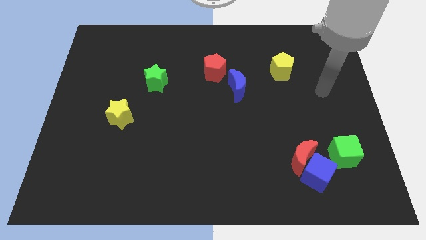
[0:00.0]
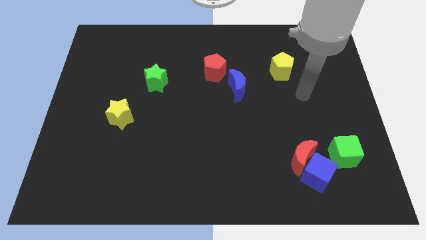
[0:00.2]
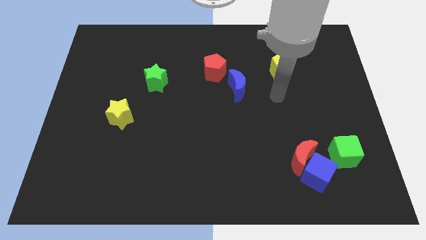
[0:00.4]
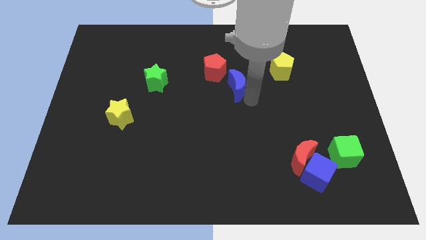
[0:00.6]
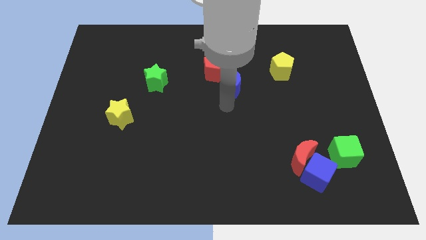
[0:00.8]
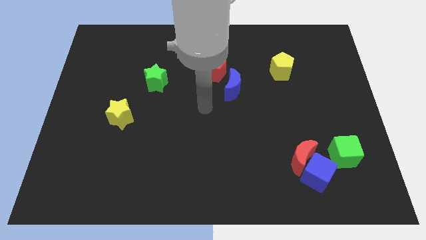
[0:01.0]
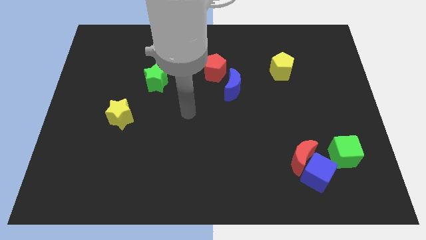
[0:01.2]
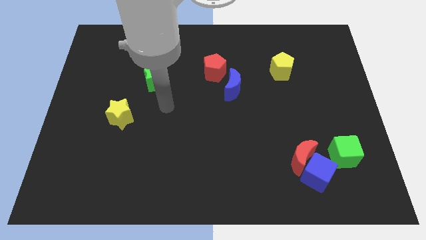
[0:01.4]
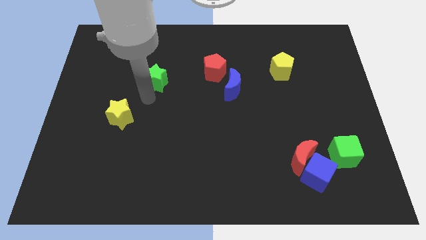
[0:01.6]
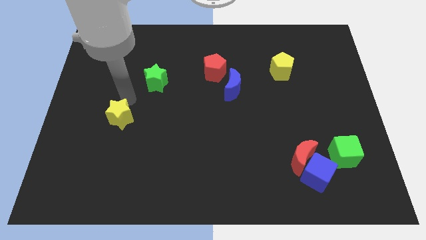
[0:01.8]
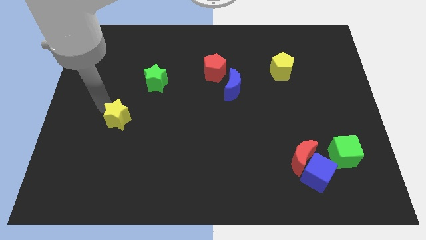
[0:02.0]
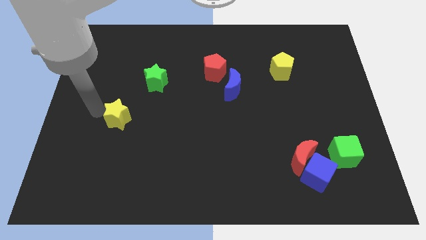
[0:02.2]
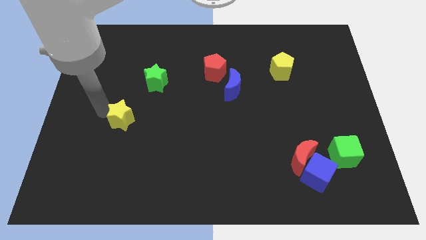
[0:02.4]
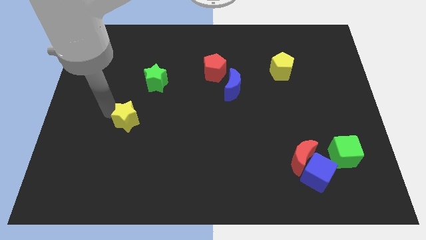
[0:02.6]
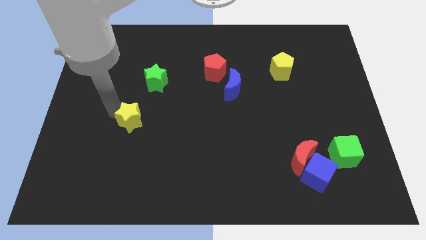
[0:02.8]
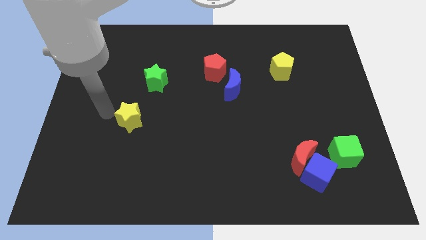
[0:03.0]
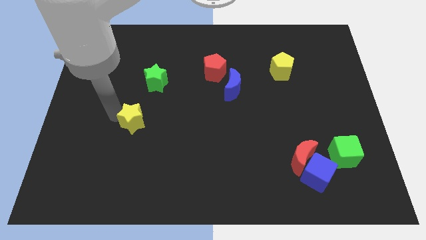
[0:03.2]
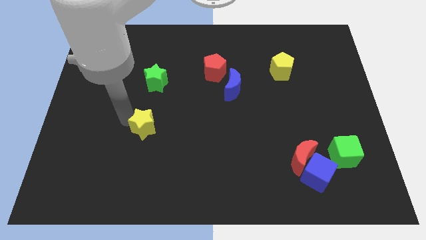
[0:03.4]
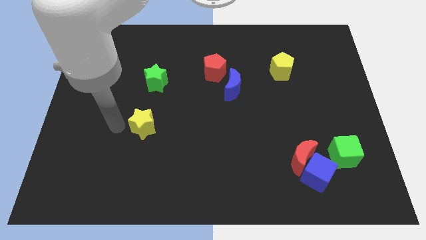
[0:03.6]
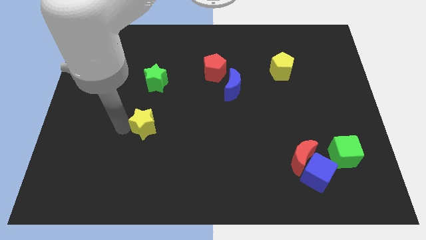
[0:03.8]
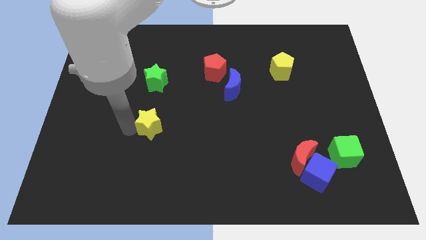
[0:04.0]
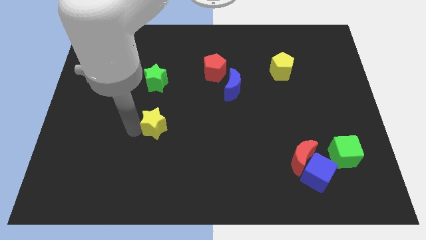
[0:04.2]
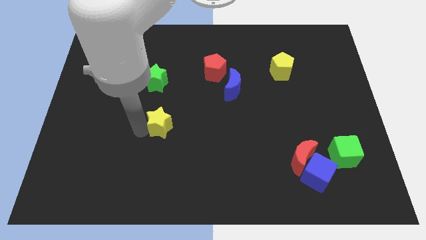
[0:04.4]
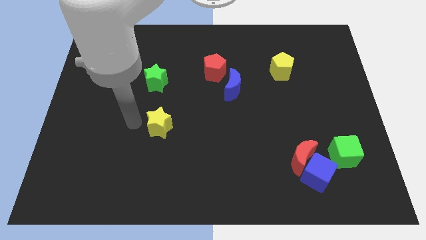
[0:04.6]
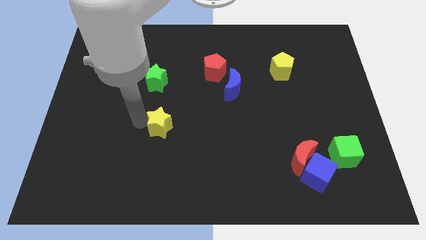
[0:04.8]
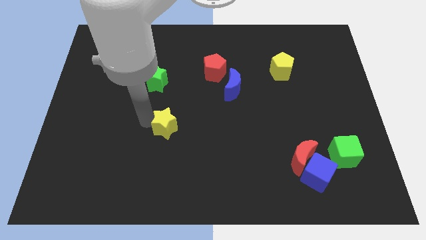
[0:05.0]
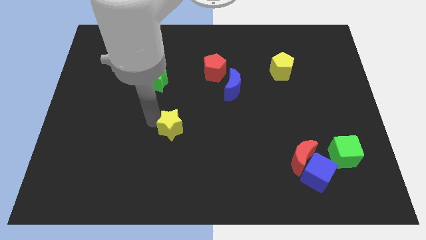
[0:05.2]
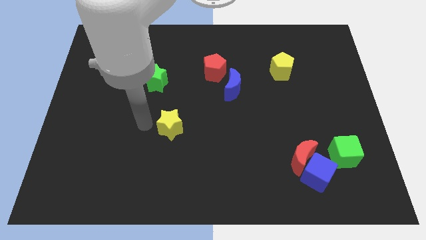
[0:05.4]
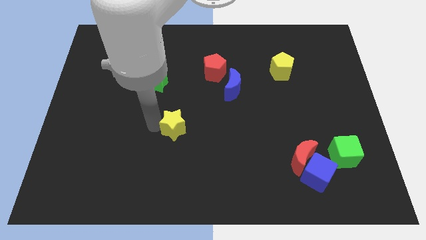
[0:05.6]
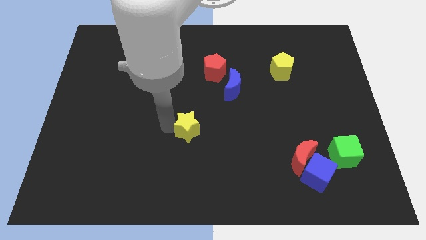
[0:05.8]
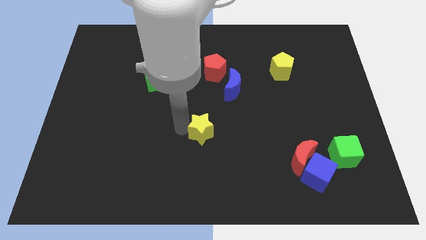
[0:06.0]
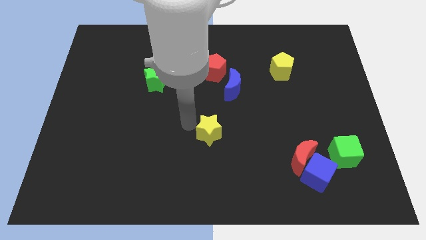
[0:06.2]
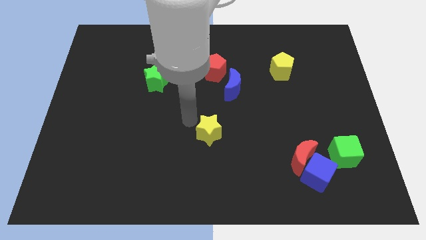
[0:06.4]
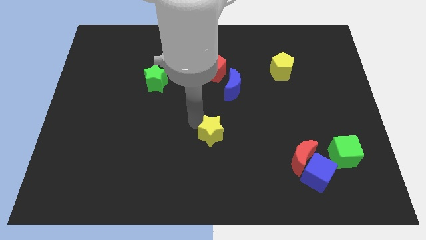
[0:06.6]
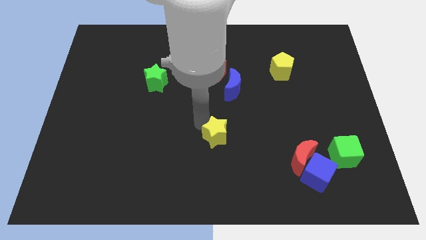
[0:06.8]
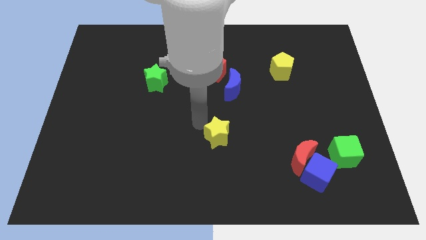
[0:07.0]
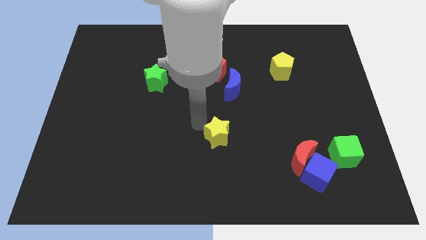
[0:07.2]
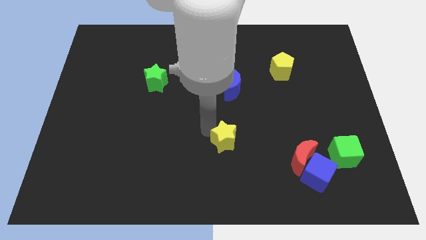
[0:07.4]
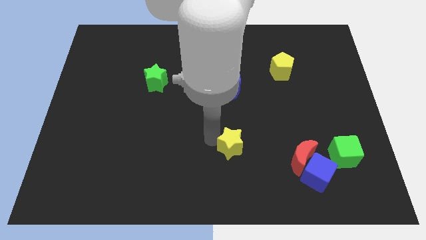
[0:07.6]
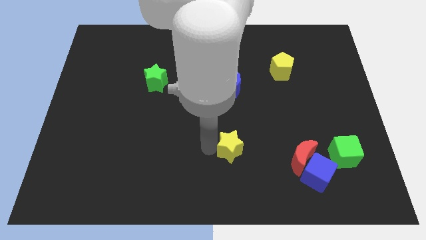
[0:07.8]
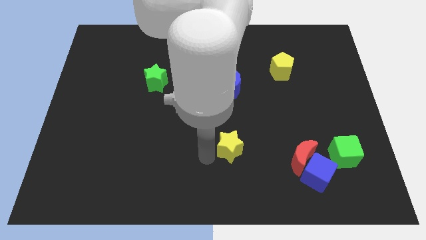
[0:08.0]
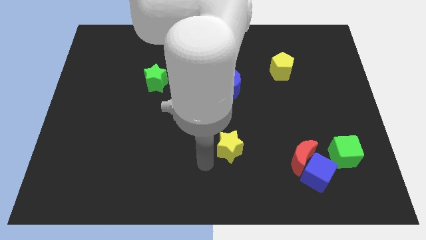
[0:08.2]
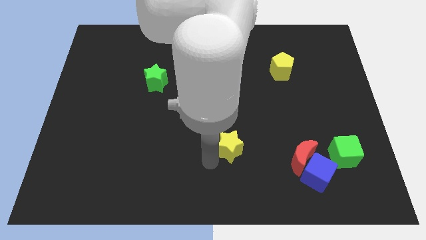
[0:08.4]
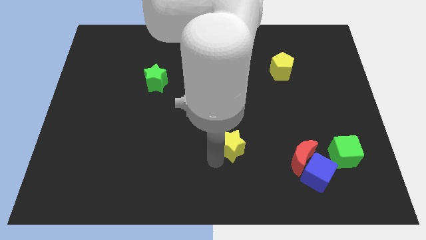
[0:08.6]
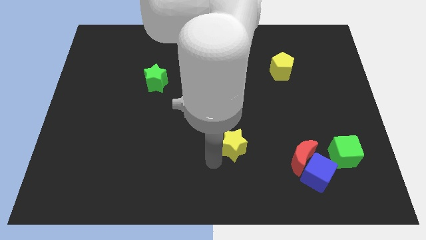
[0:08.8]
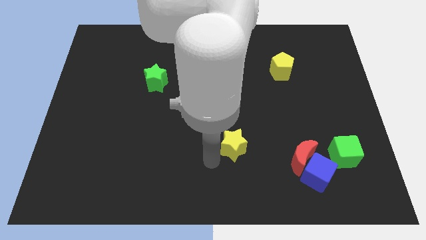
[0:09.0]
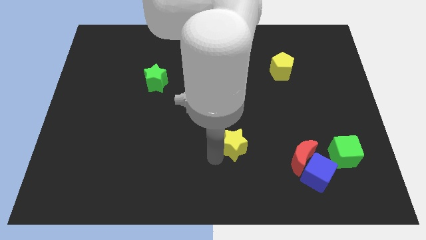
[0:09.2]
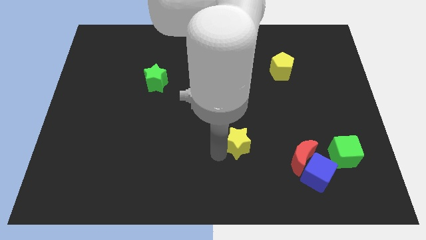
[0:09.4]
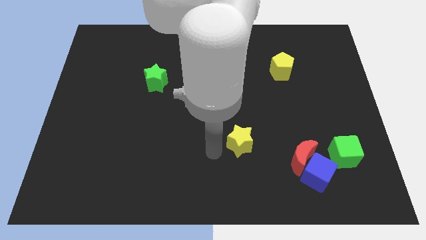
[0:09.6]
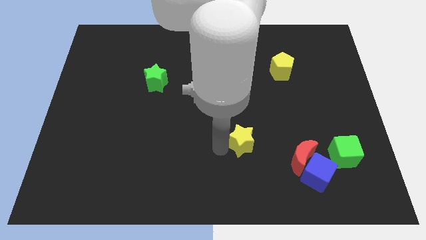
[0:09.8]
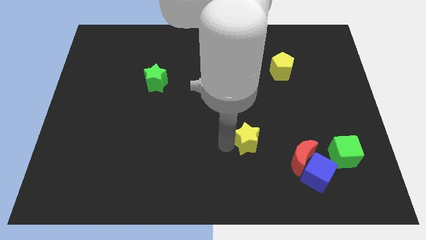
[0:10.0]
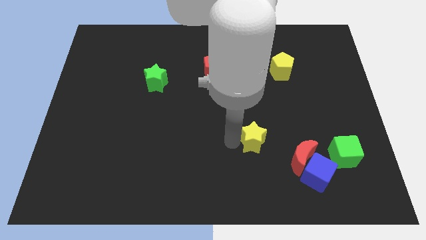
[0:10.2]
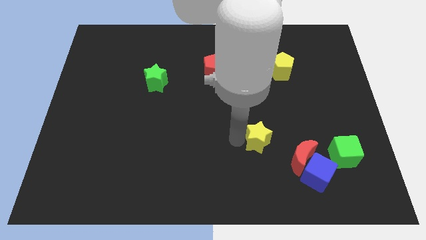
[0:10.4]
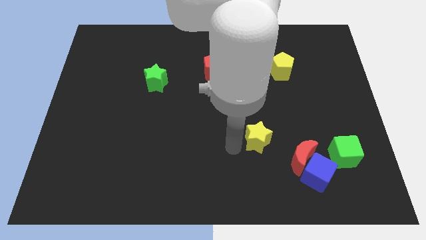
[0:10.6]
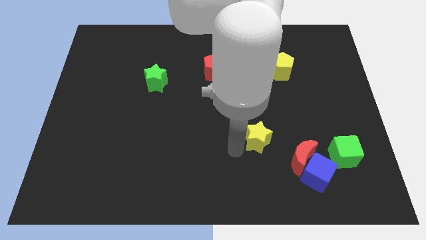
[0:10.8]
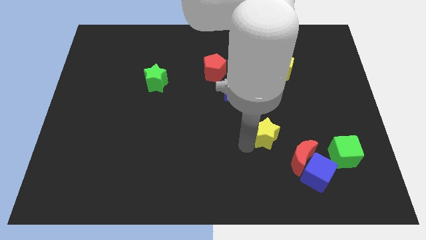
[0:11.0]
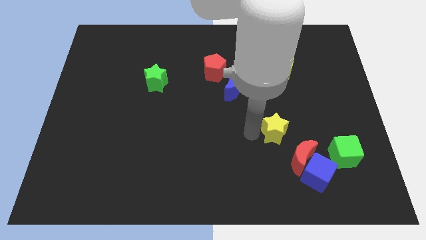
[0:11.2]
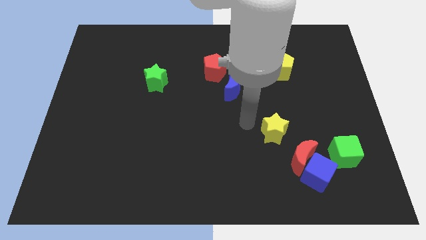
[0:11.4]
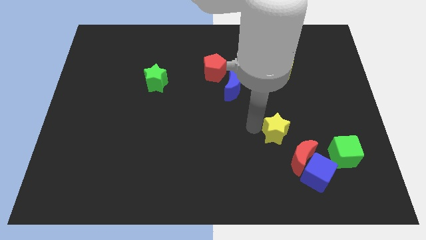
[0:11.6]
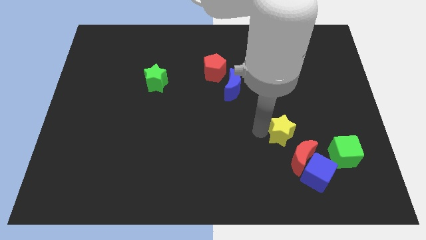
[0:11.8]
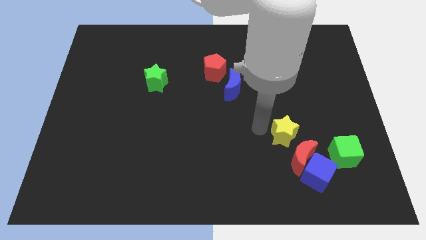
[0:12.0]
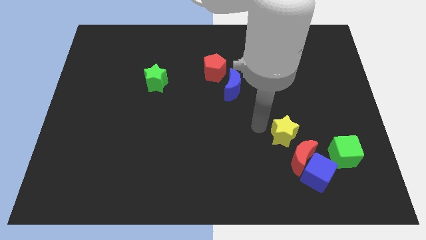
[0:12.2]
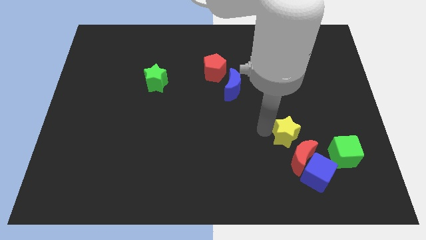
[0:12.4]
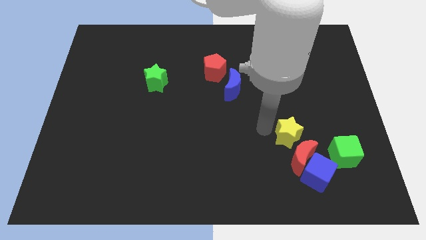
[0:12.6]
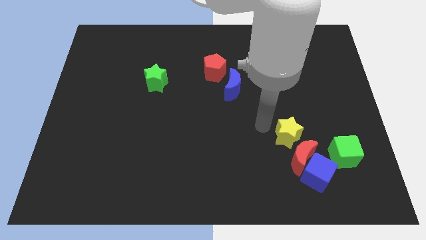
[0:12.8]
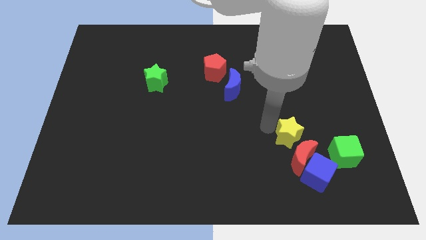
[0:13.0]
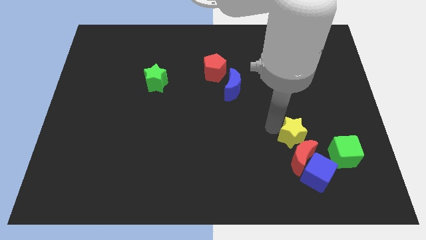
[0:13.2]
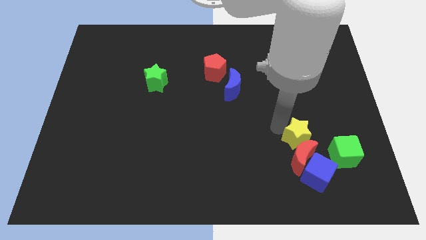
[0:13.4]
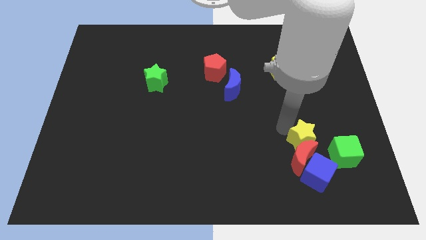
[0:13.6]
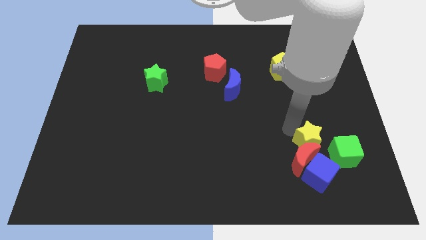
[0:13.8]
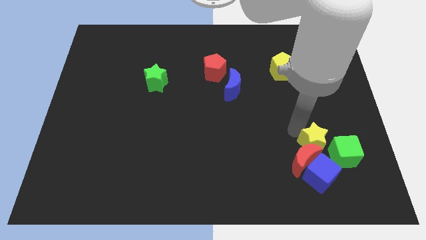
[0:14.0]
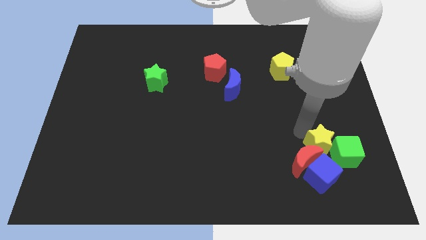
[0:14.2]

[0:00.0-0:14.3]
push the yellow star towards the green cube
